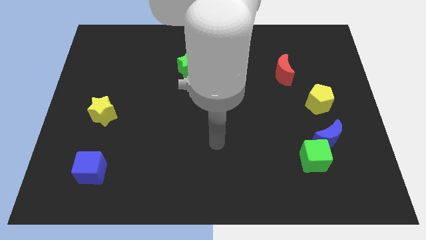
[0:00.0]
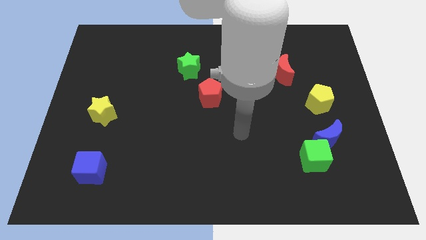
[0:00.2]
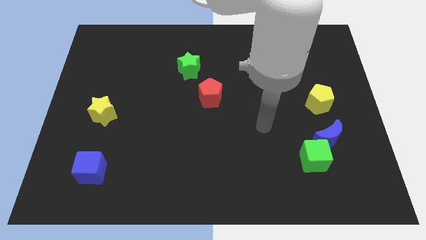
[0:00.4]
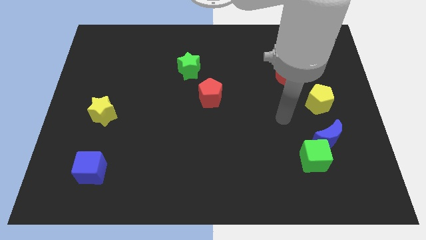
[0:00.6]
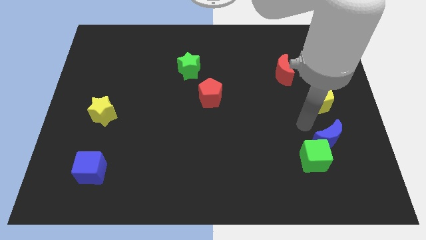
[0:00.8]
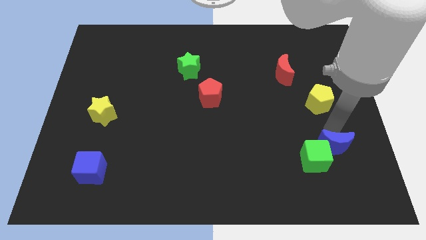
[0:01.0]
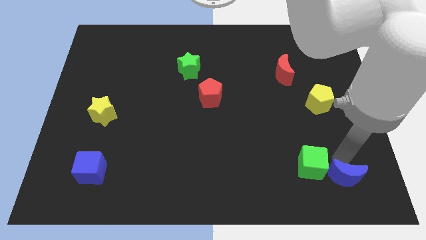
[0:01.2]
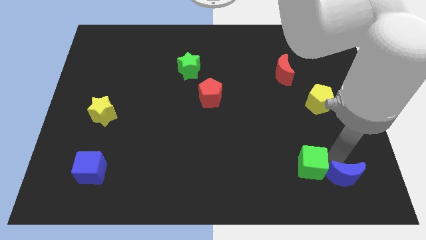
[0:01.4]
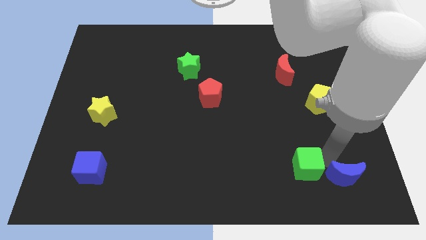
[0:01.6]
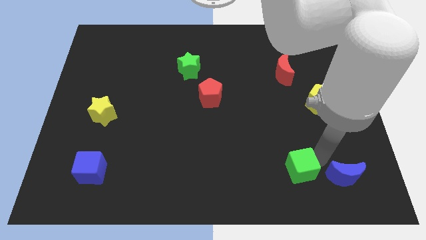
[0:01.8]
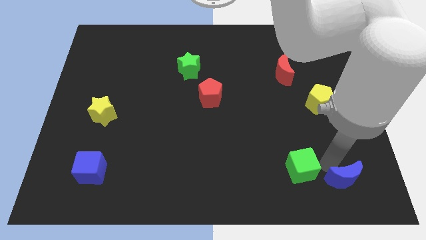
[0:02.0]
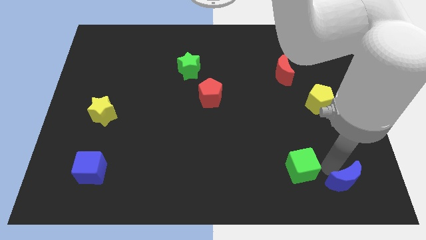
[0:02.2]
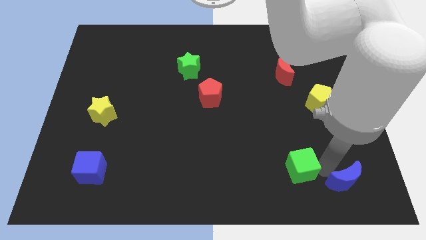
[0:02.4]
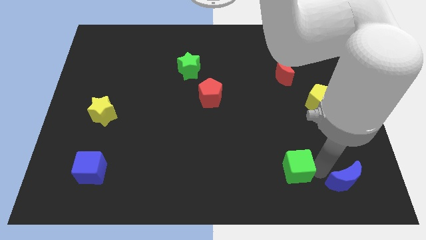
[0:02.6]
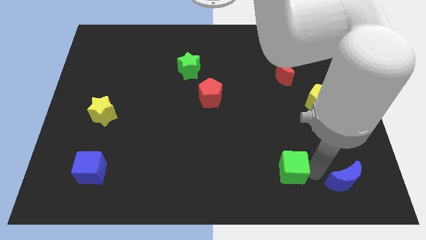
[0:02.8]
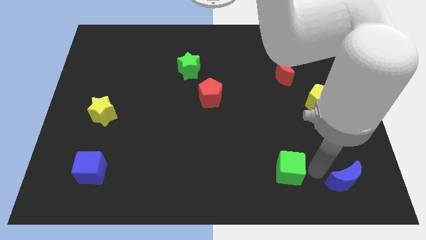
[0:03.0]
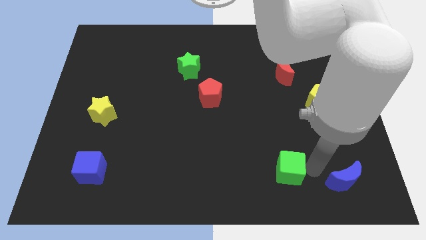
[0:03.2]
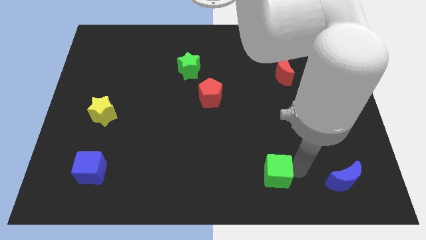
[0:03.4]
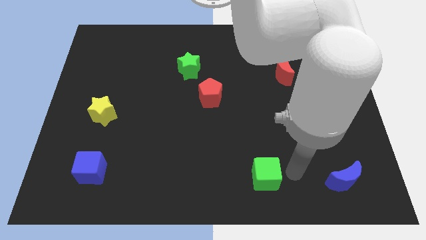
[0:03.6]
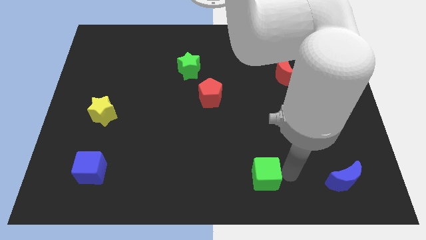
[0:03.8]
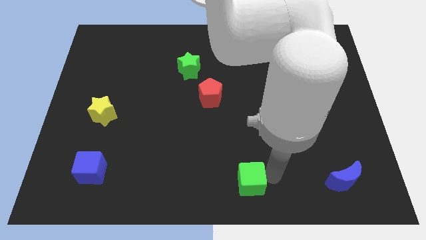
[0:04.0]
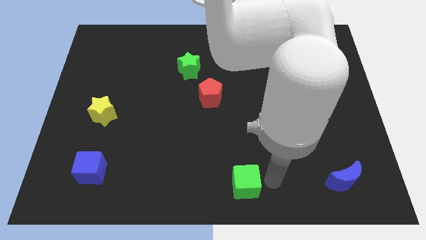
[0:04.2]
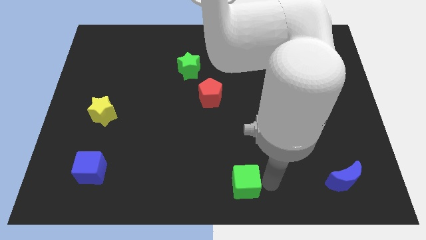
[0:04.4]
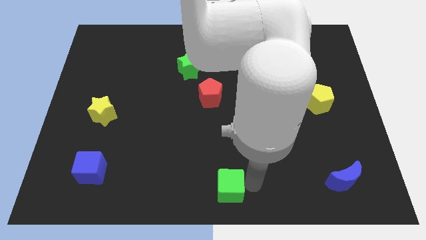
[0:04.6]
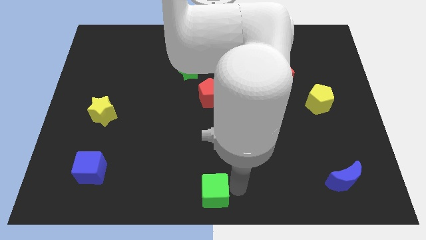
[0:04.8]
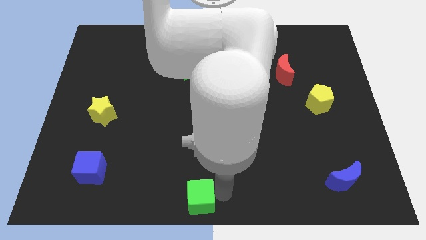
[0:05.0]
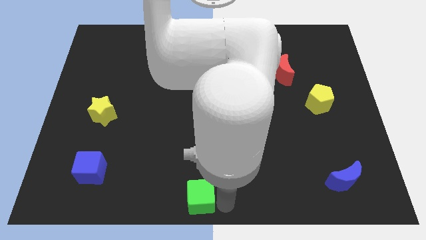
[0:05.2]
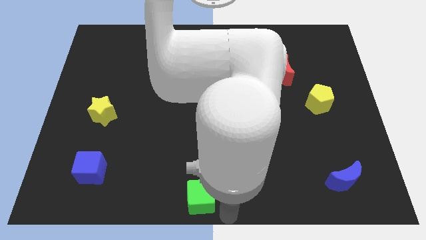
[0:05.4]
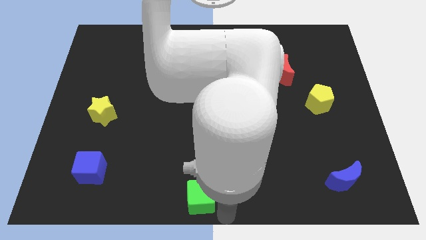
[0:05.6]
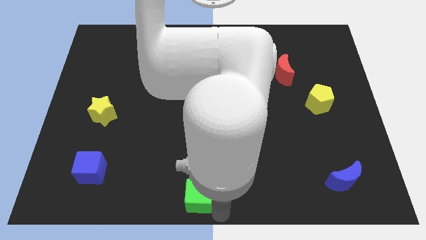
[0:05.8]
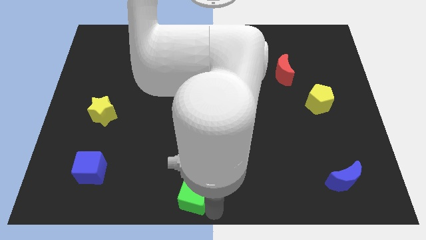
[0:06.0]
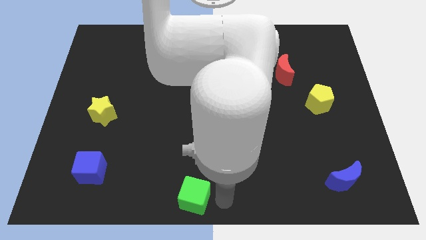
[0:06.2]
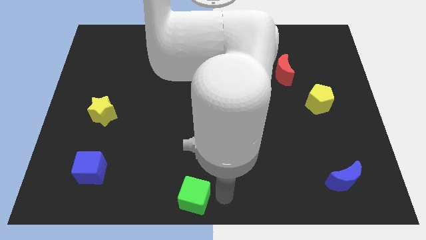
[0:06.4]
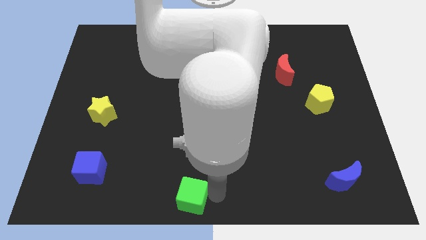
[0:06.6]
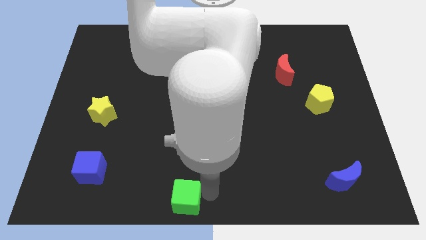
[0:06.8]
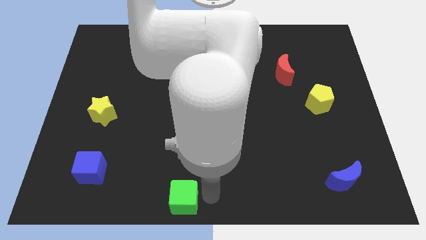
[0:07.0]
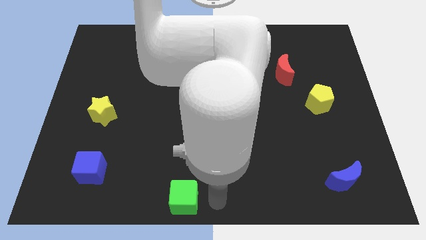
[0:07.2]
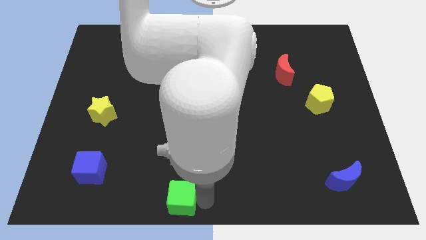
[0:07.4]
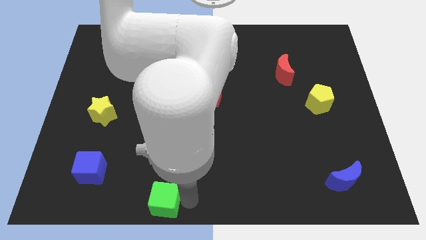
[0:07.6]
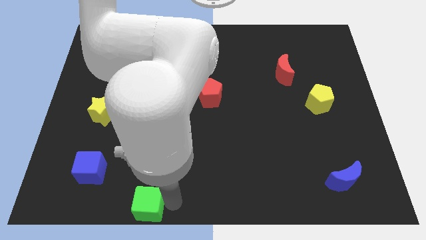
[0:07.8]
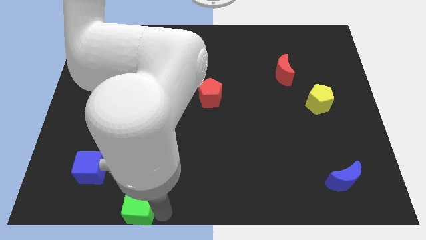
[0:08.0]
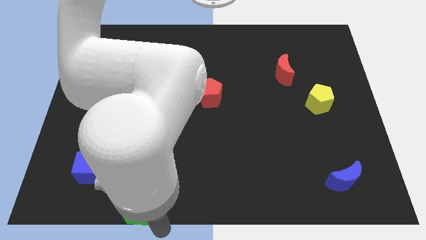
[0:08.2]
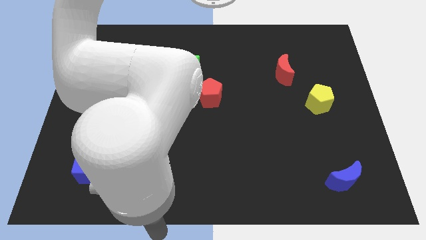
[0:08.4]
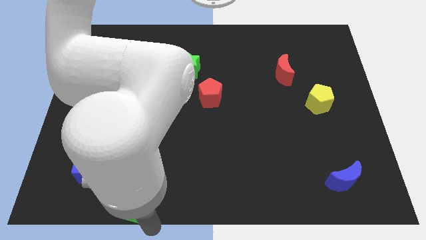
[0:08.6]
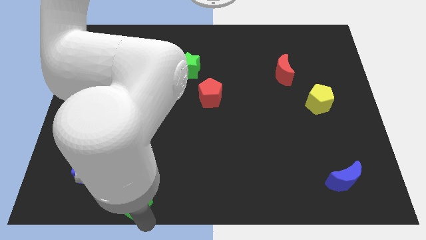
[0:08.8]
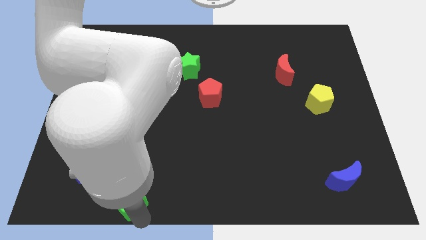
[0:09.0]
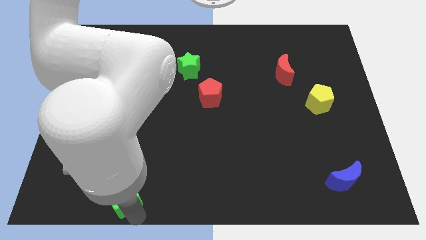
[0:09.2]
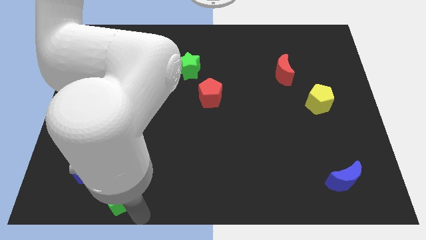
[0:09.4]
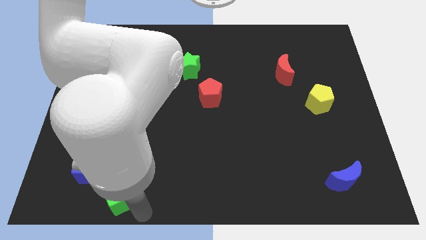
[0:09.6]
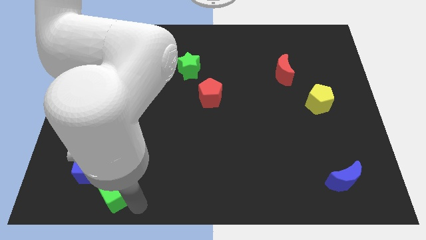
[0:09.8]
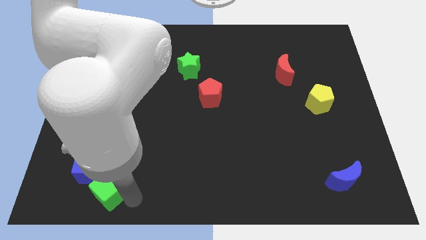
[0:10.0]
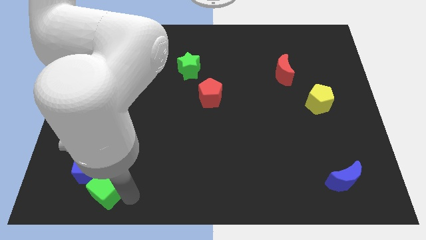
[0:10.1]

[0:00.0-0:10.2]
move the green cube to the blue cube

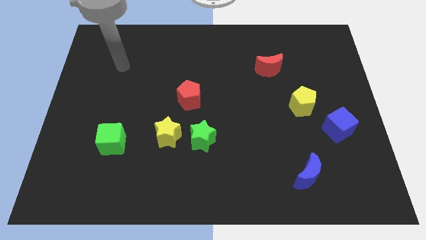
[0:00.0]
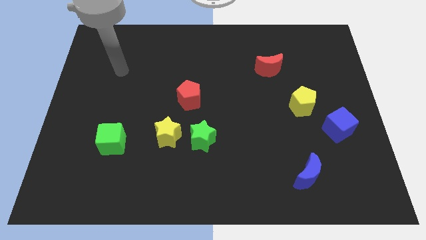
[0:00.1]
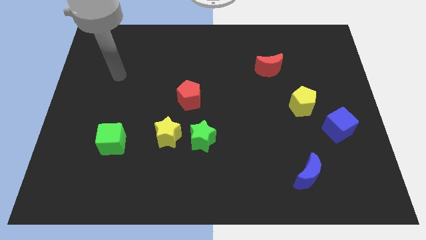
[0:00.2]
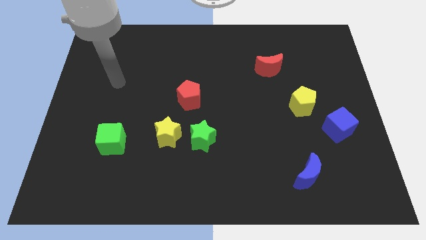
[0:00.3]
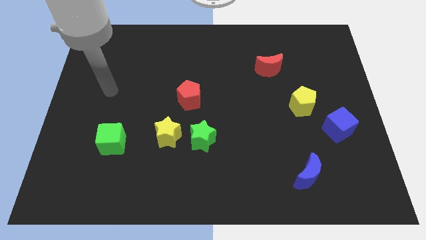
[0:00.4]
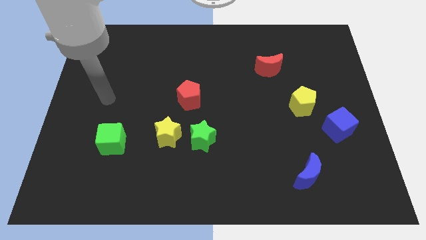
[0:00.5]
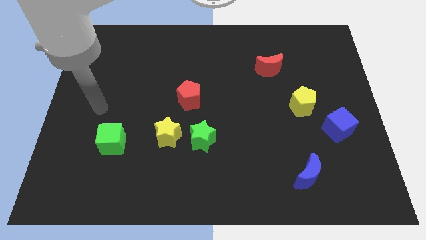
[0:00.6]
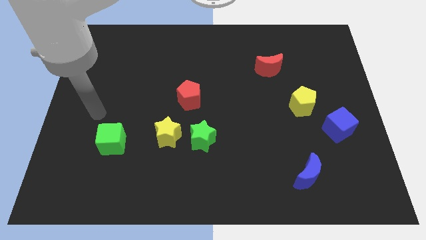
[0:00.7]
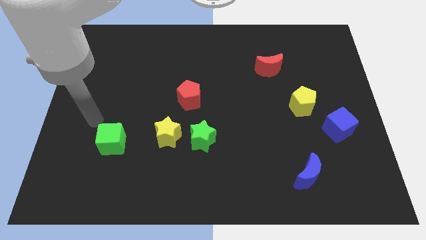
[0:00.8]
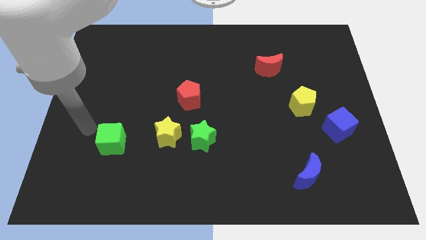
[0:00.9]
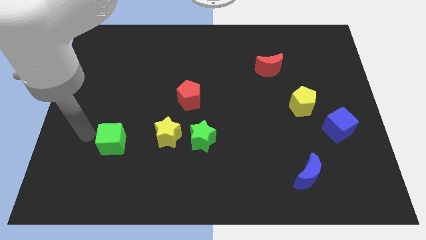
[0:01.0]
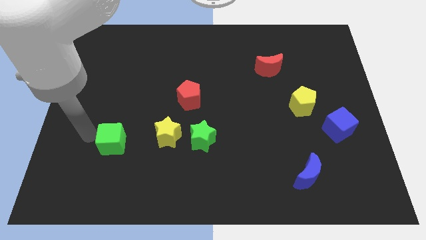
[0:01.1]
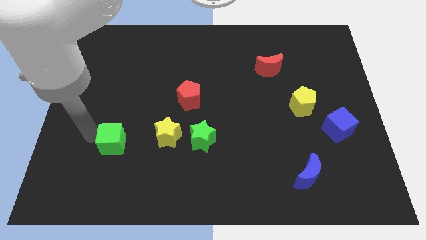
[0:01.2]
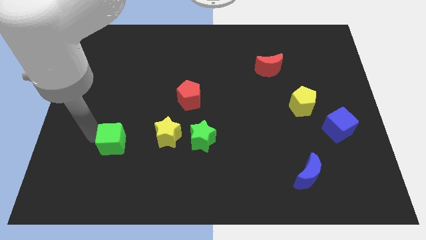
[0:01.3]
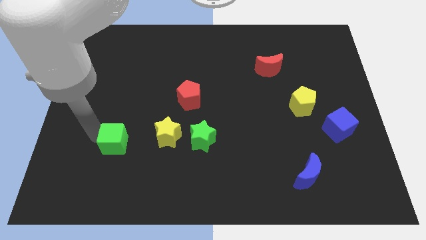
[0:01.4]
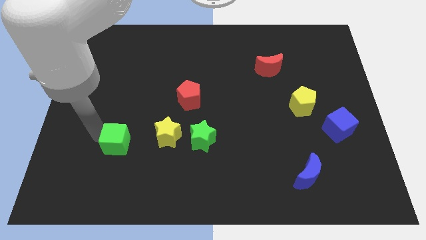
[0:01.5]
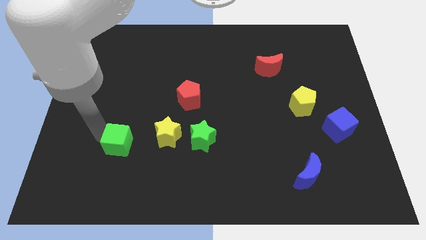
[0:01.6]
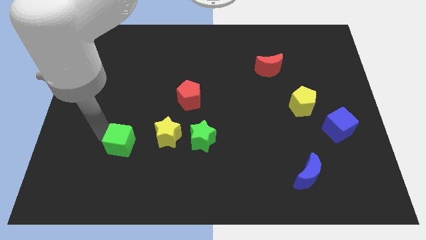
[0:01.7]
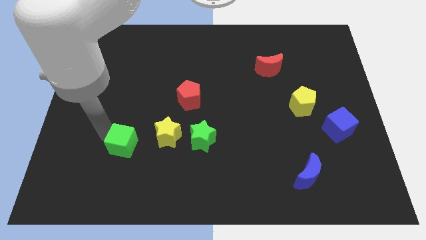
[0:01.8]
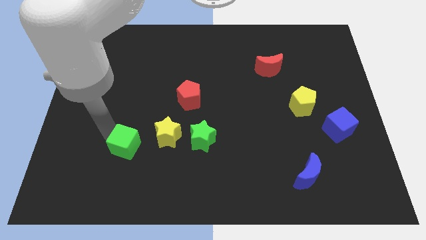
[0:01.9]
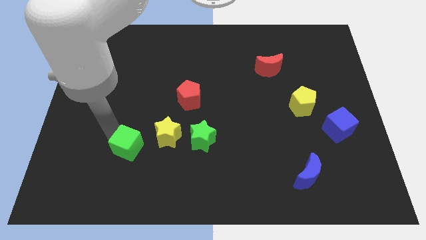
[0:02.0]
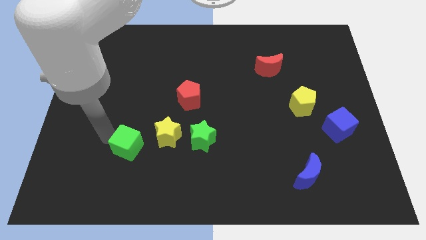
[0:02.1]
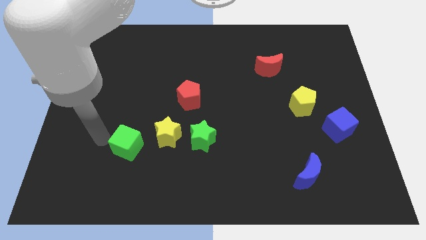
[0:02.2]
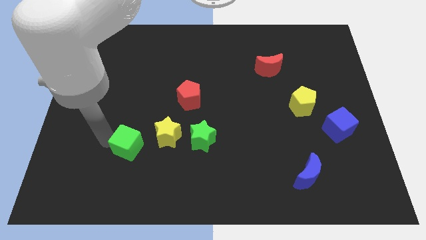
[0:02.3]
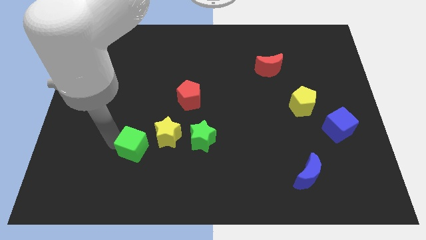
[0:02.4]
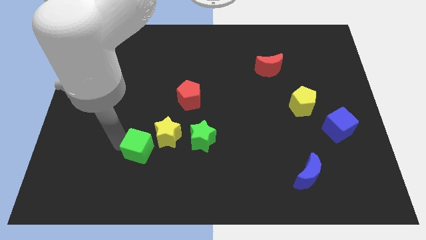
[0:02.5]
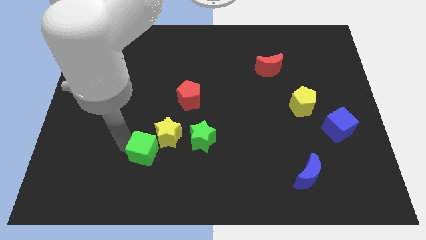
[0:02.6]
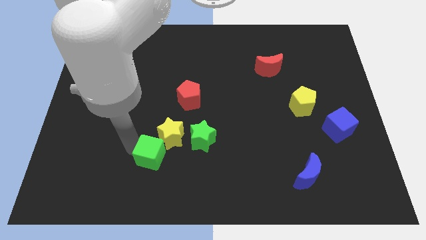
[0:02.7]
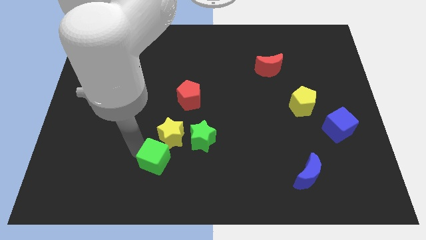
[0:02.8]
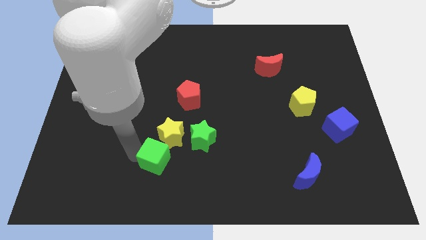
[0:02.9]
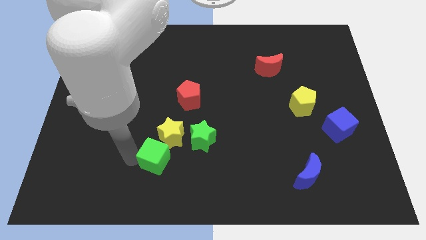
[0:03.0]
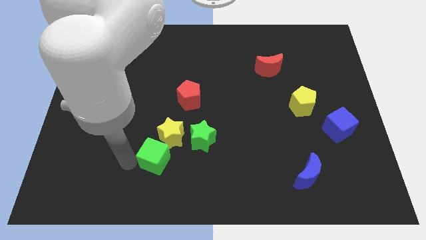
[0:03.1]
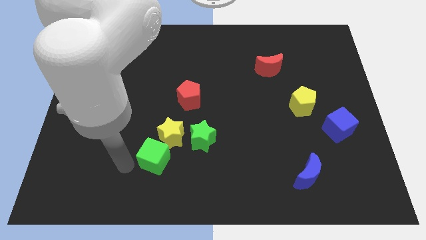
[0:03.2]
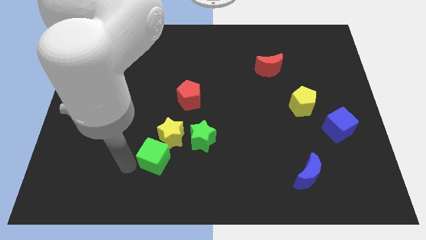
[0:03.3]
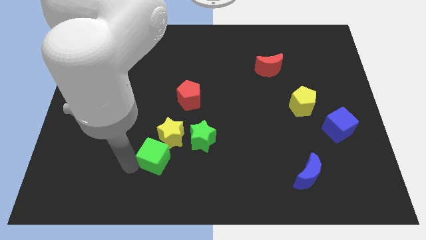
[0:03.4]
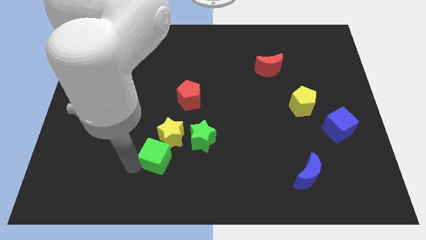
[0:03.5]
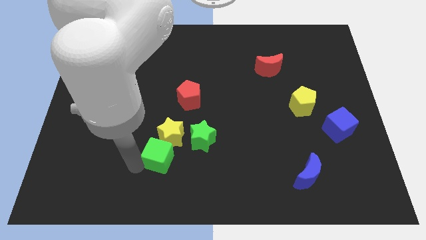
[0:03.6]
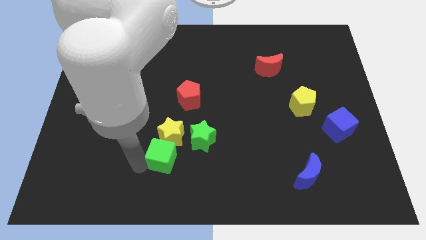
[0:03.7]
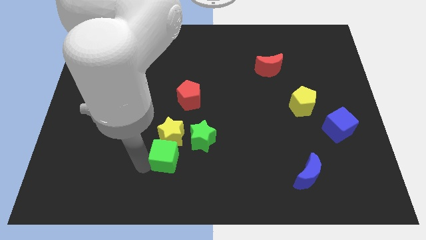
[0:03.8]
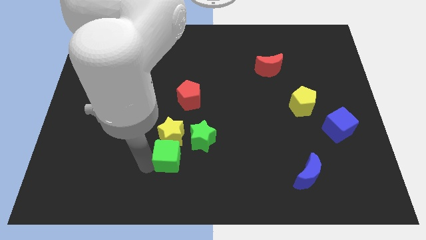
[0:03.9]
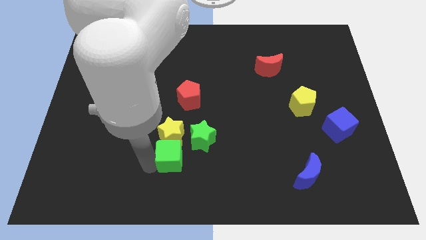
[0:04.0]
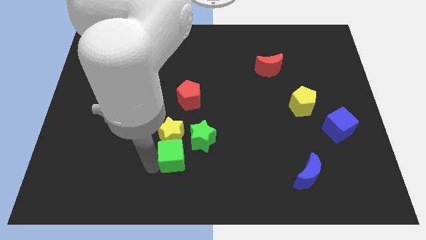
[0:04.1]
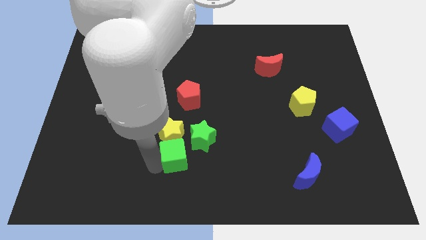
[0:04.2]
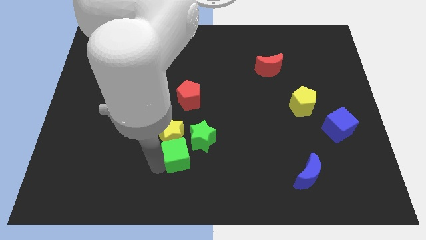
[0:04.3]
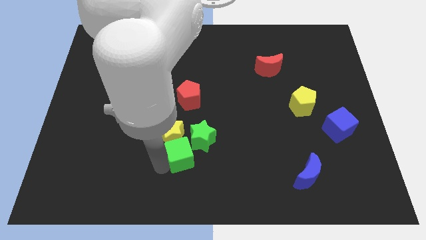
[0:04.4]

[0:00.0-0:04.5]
put the green cube close to the green star
